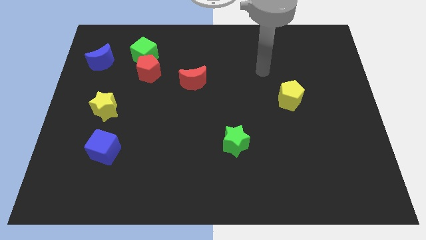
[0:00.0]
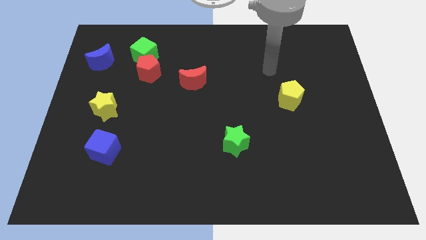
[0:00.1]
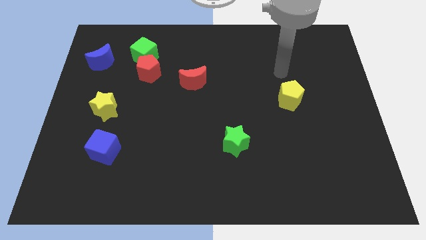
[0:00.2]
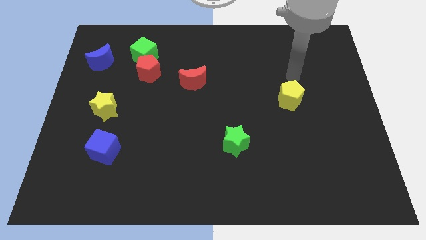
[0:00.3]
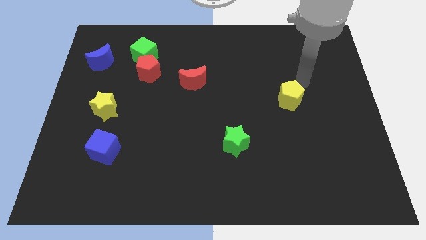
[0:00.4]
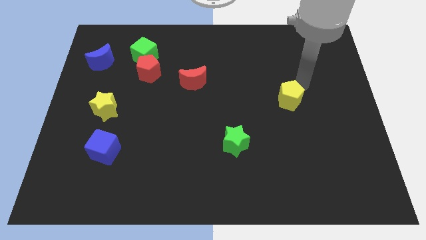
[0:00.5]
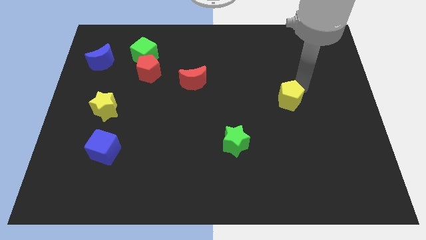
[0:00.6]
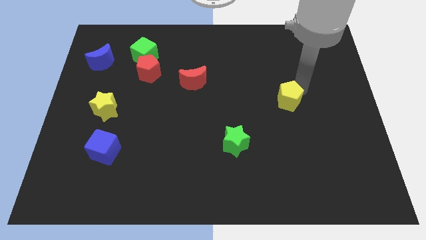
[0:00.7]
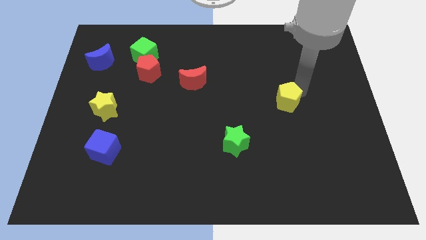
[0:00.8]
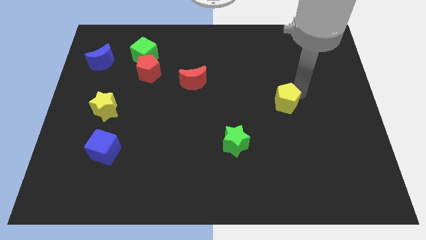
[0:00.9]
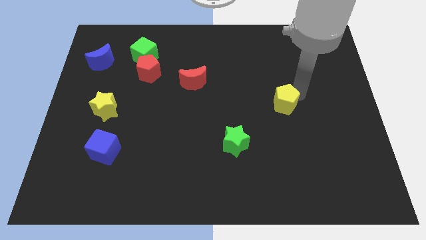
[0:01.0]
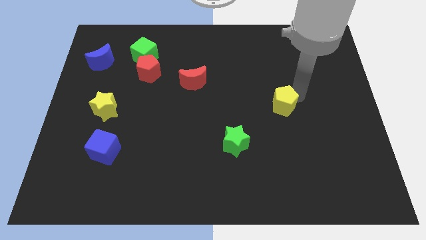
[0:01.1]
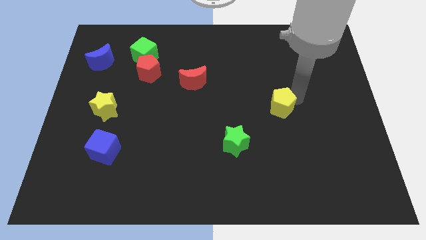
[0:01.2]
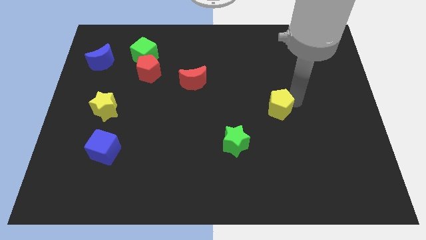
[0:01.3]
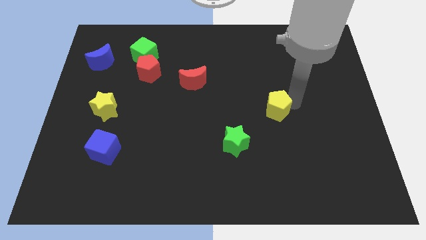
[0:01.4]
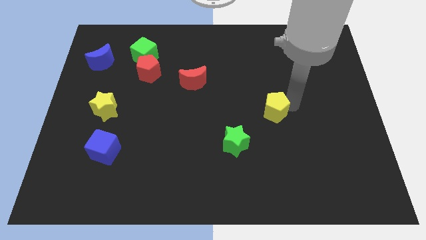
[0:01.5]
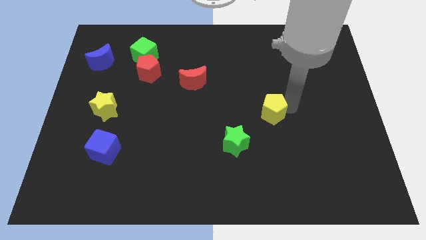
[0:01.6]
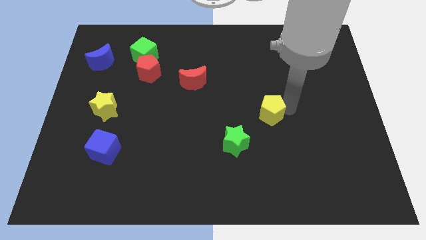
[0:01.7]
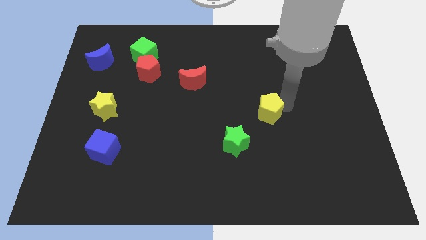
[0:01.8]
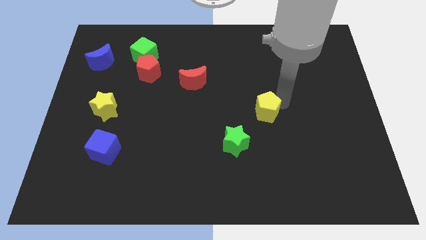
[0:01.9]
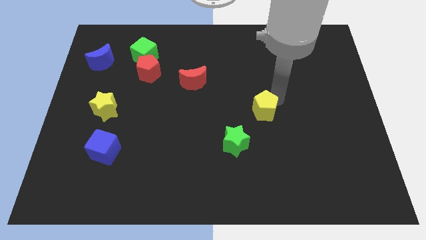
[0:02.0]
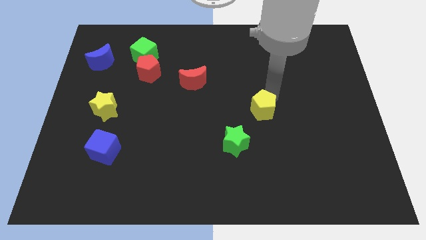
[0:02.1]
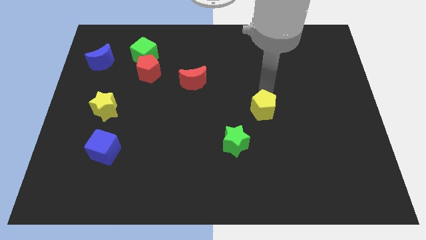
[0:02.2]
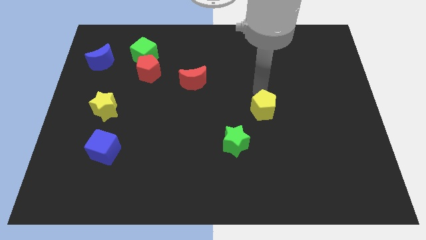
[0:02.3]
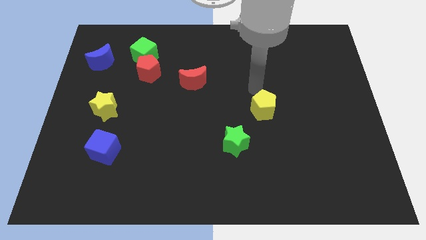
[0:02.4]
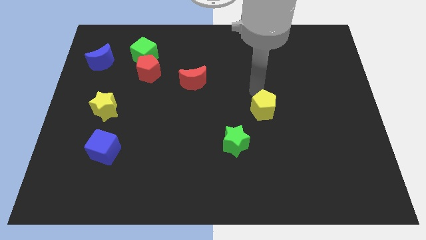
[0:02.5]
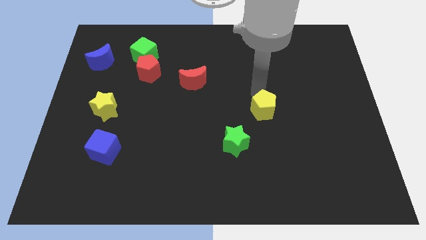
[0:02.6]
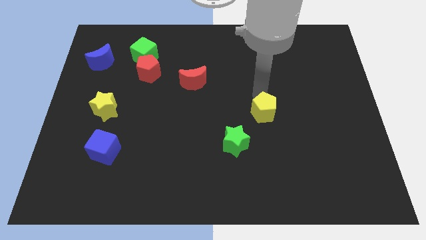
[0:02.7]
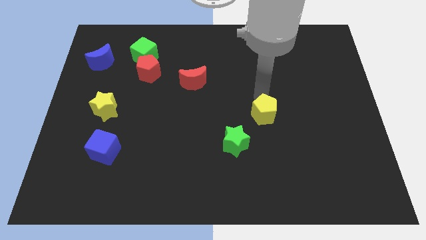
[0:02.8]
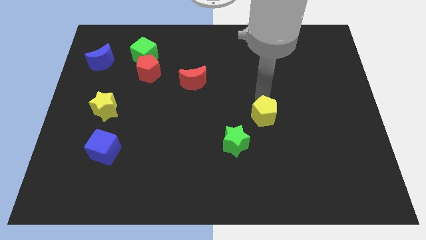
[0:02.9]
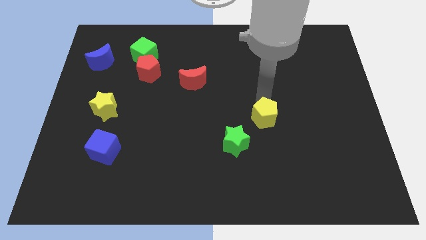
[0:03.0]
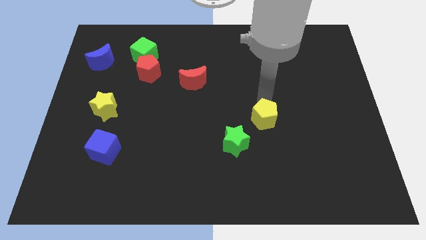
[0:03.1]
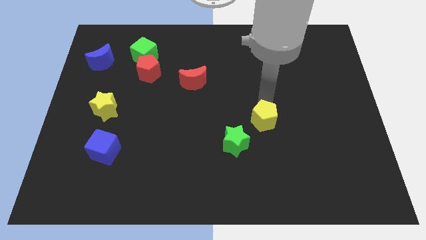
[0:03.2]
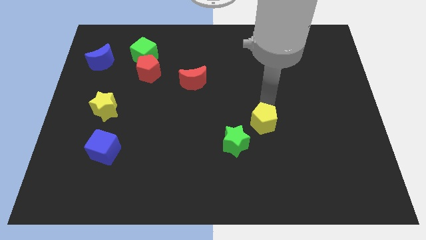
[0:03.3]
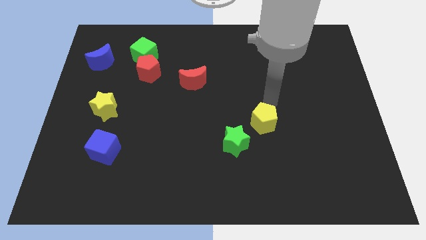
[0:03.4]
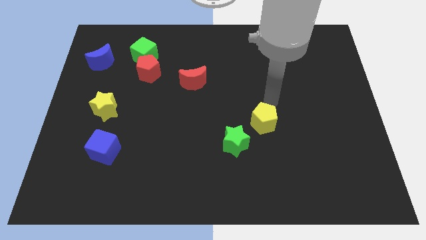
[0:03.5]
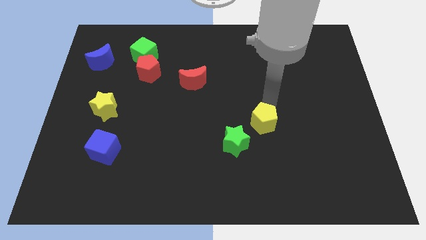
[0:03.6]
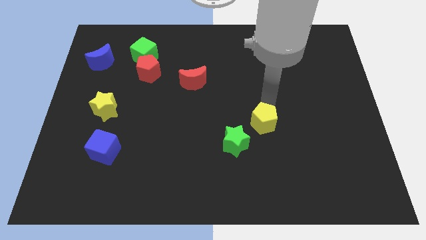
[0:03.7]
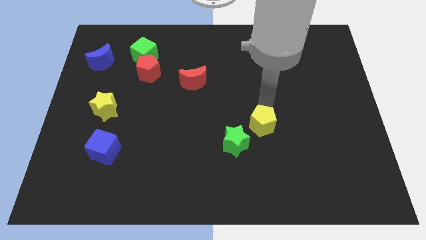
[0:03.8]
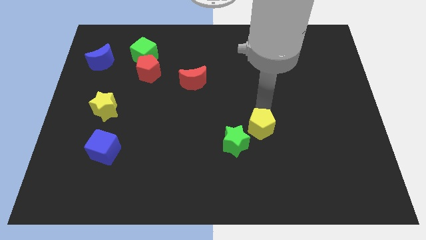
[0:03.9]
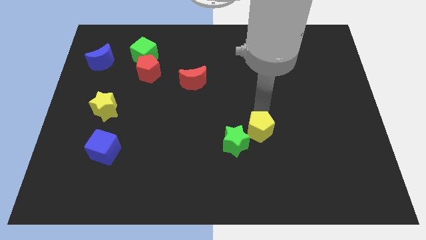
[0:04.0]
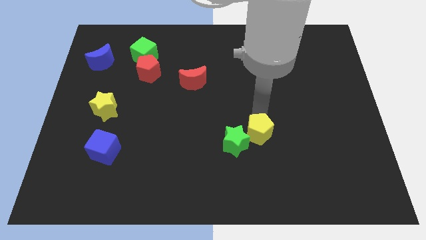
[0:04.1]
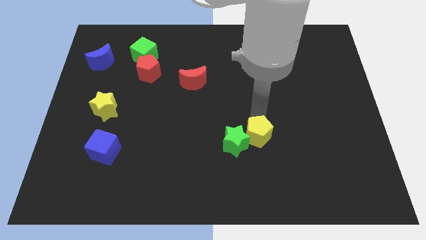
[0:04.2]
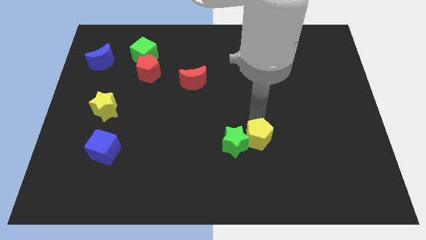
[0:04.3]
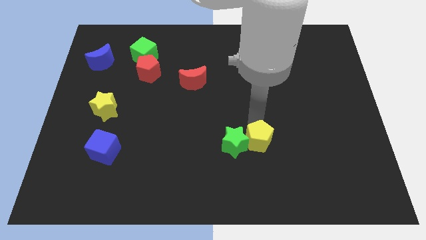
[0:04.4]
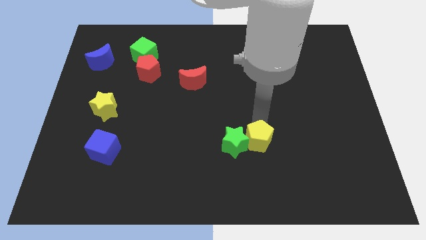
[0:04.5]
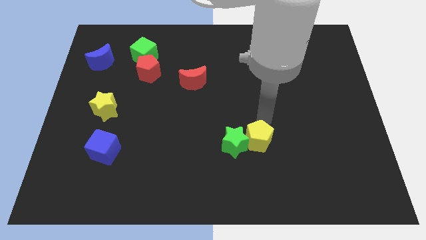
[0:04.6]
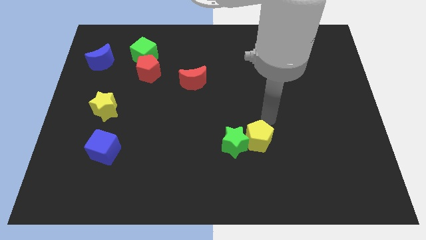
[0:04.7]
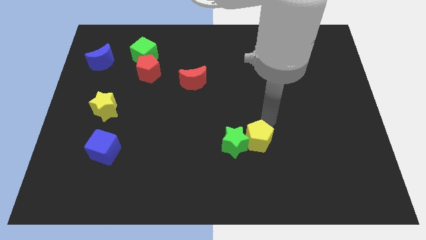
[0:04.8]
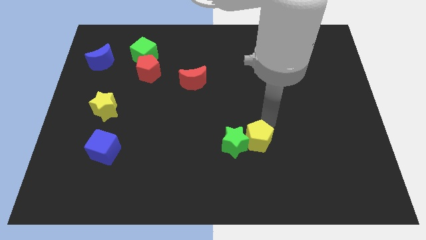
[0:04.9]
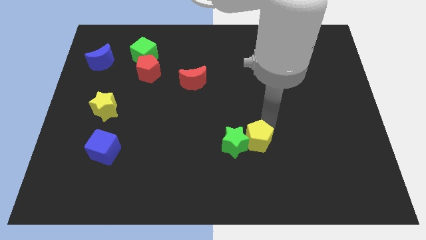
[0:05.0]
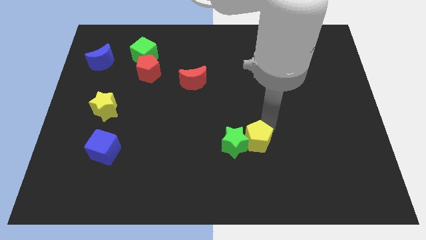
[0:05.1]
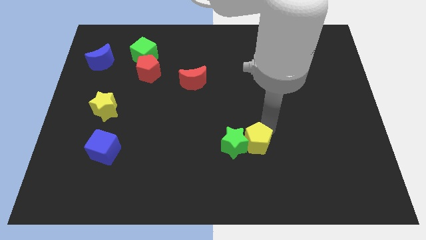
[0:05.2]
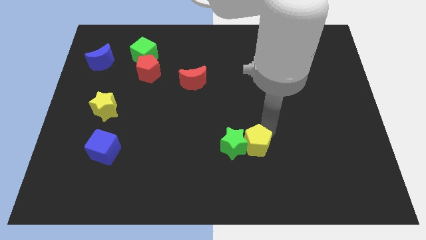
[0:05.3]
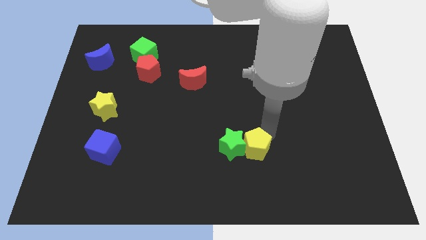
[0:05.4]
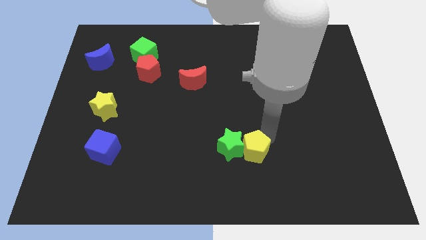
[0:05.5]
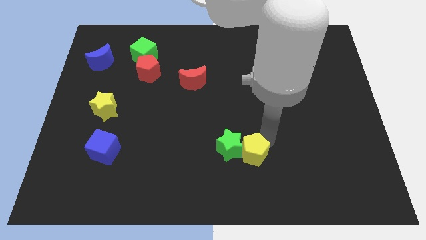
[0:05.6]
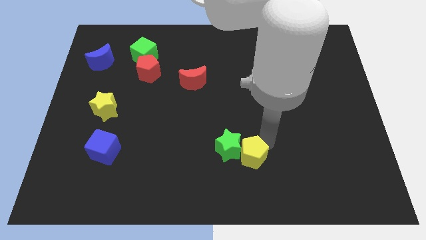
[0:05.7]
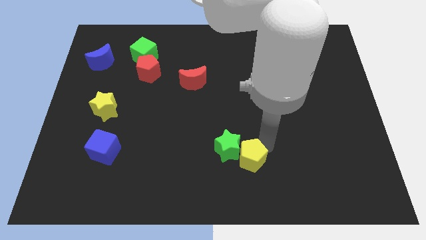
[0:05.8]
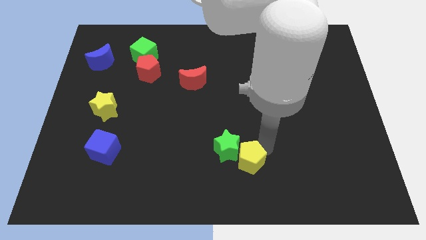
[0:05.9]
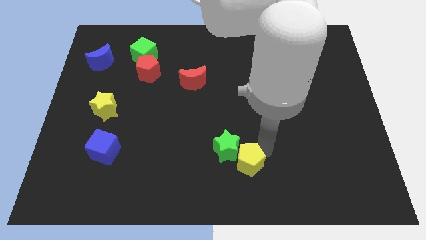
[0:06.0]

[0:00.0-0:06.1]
push the yellow pentagon to the bottom side

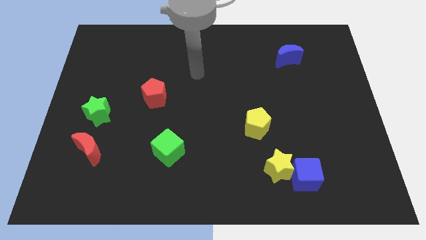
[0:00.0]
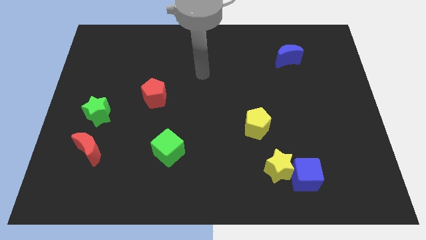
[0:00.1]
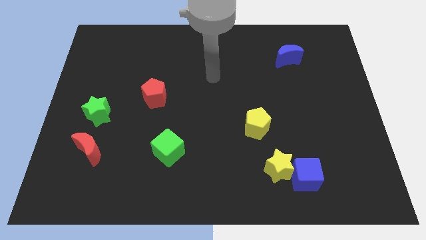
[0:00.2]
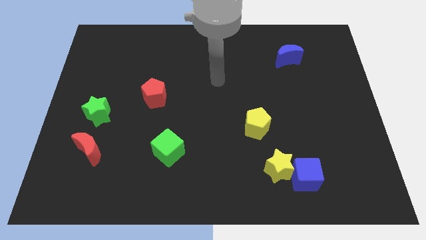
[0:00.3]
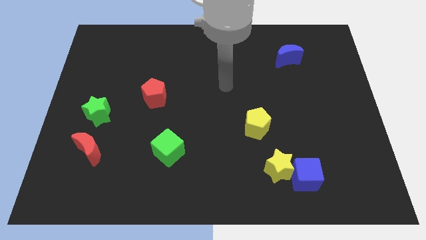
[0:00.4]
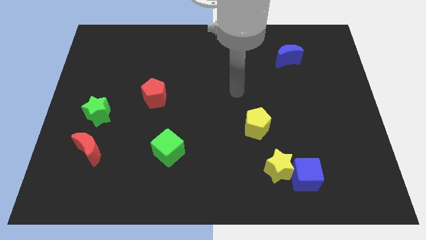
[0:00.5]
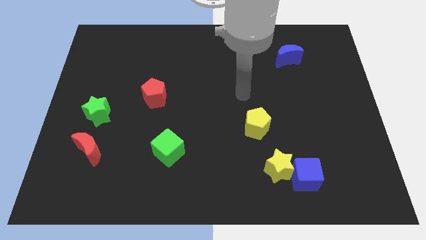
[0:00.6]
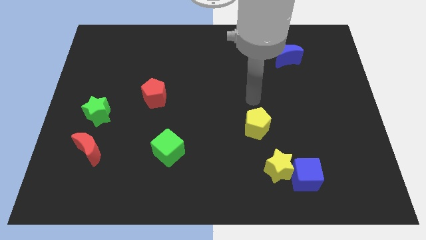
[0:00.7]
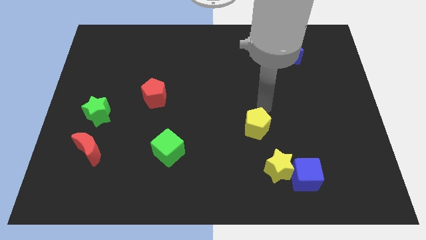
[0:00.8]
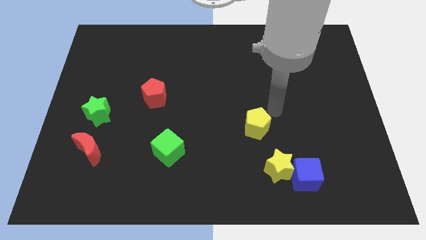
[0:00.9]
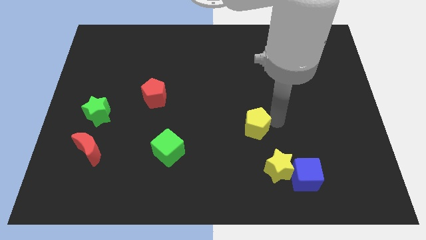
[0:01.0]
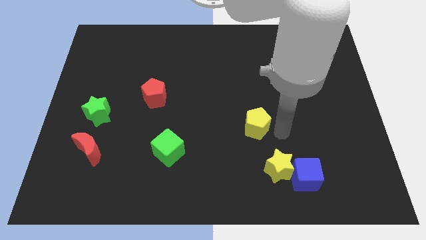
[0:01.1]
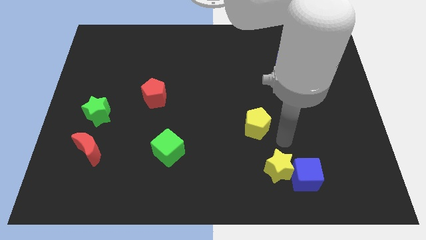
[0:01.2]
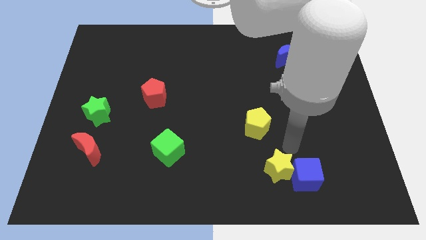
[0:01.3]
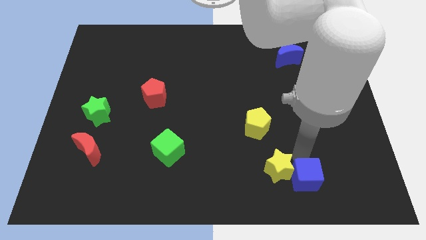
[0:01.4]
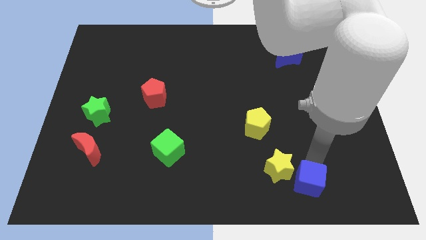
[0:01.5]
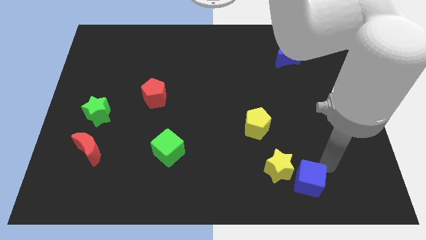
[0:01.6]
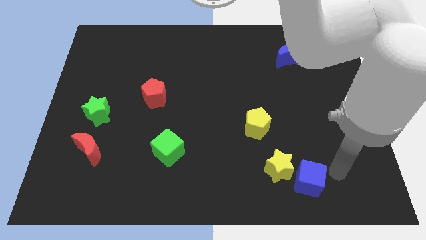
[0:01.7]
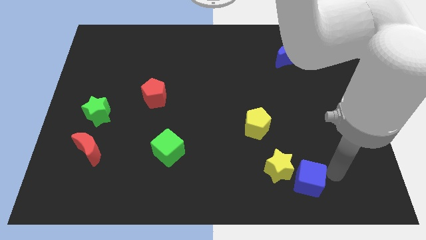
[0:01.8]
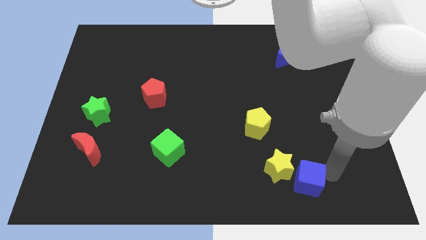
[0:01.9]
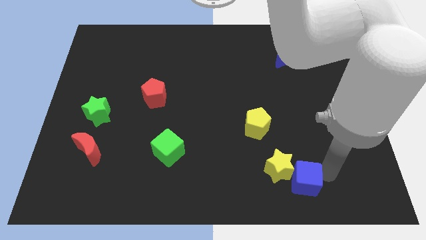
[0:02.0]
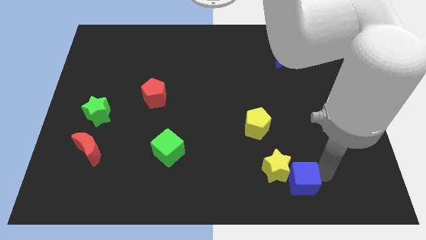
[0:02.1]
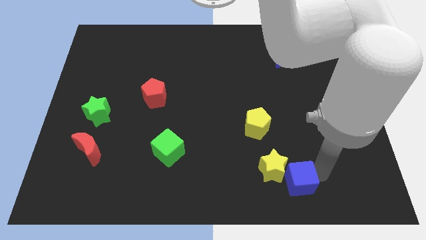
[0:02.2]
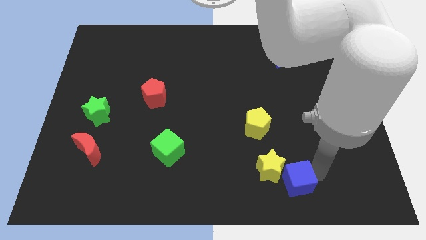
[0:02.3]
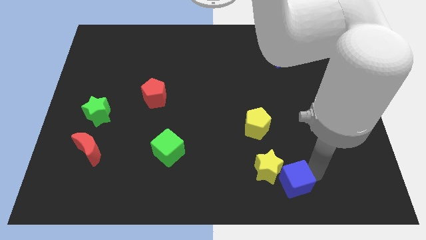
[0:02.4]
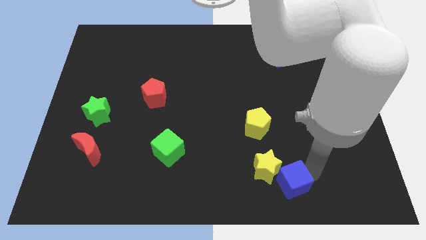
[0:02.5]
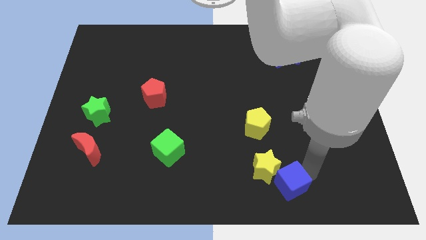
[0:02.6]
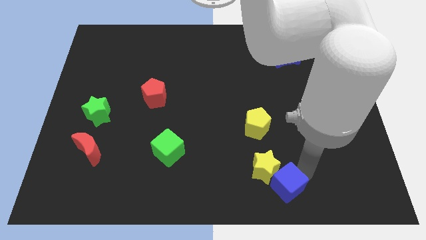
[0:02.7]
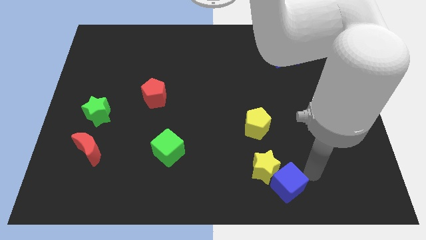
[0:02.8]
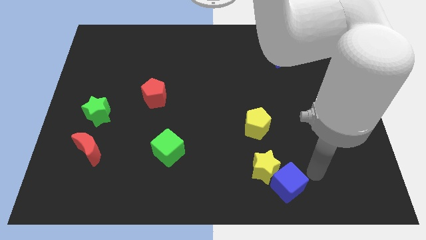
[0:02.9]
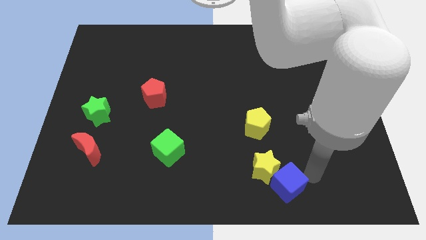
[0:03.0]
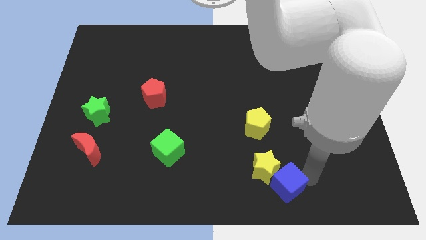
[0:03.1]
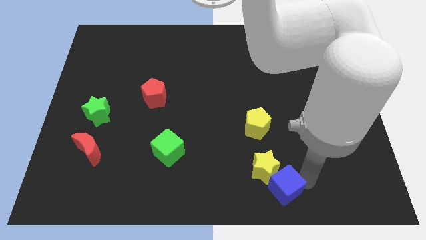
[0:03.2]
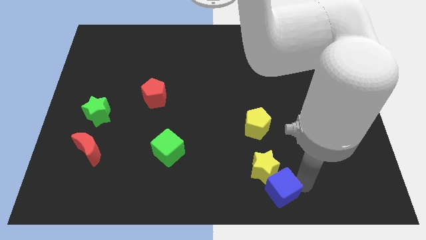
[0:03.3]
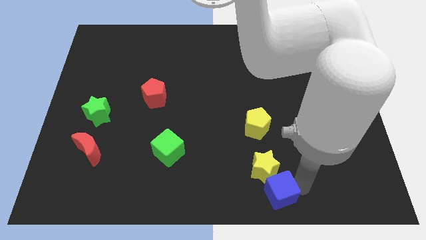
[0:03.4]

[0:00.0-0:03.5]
slide the blue cube to the bottom side
